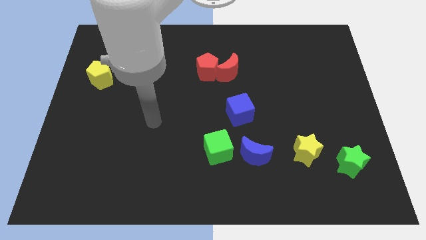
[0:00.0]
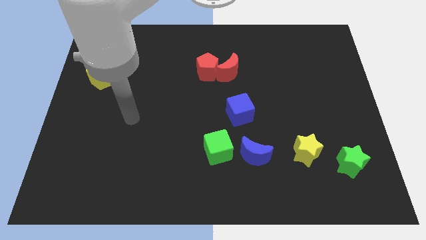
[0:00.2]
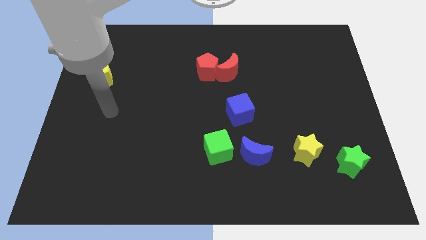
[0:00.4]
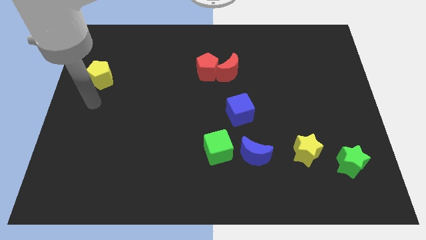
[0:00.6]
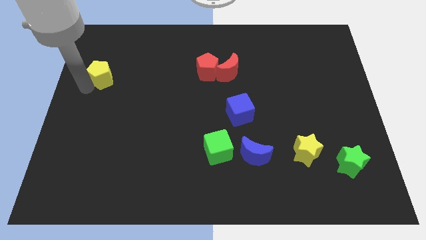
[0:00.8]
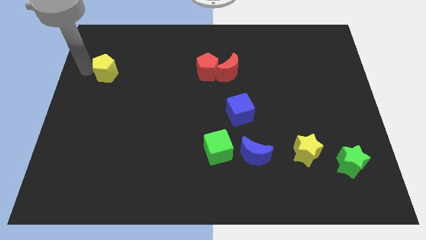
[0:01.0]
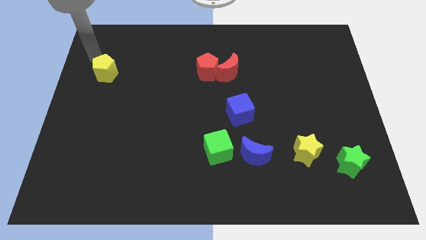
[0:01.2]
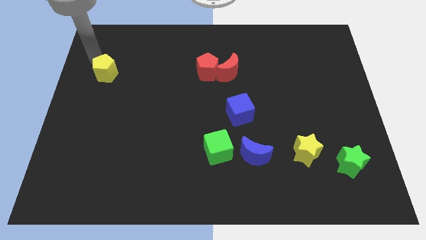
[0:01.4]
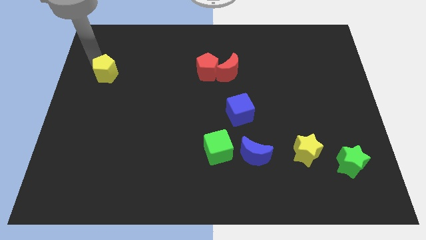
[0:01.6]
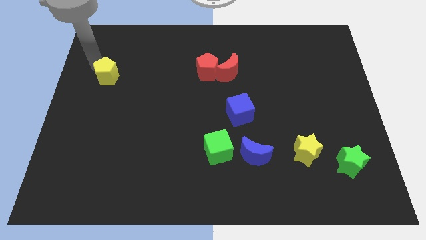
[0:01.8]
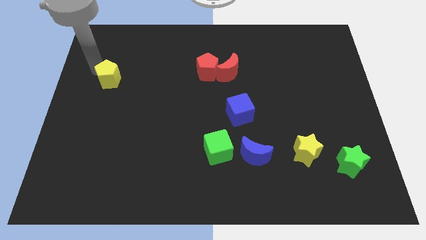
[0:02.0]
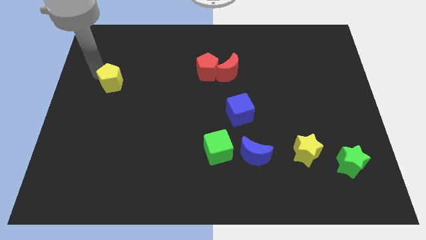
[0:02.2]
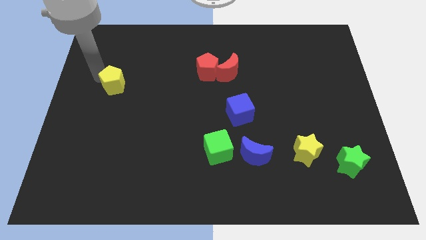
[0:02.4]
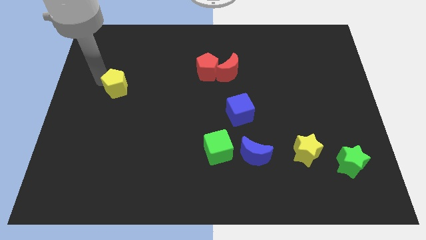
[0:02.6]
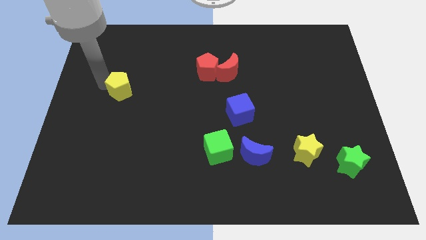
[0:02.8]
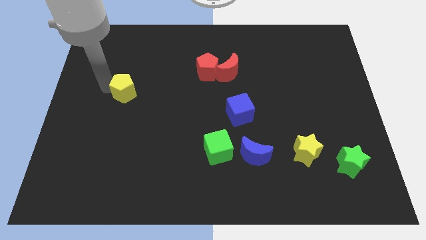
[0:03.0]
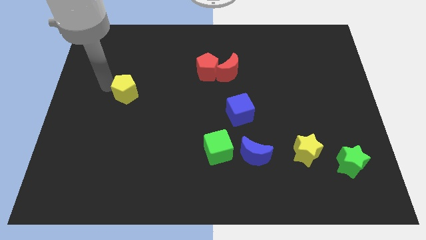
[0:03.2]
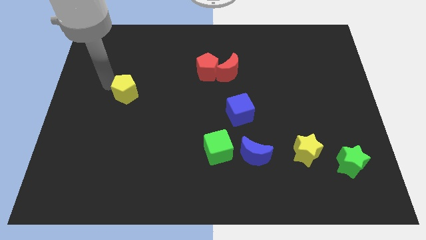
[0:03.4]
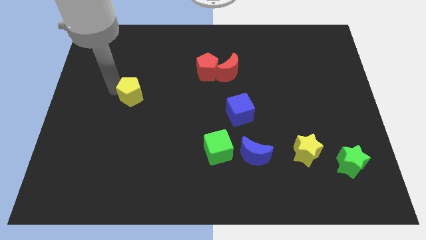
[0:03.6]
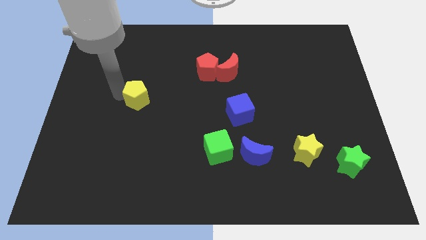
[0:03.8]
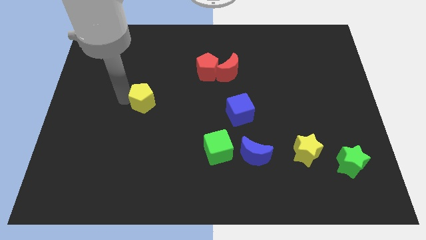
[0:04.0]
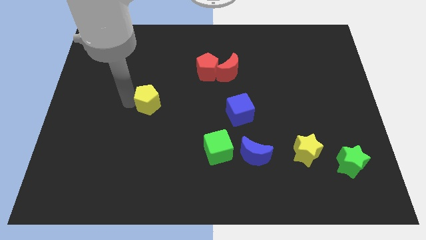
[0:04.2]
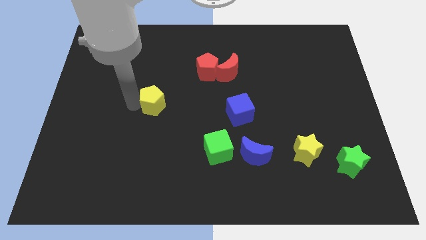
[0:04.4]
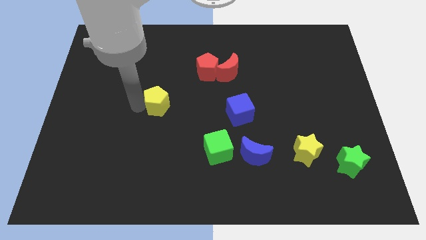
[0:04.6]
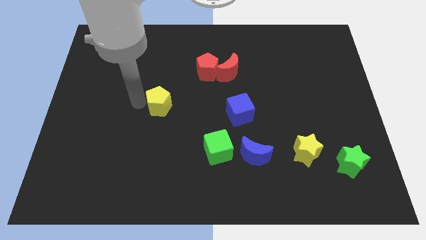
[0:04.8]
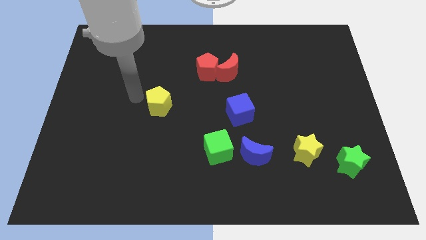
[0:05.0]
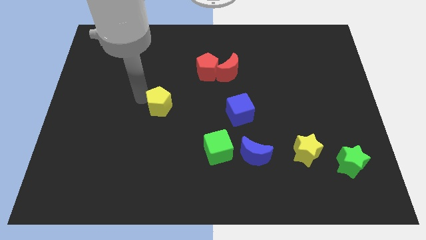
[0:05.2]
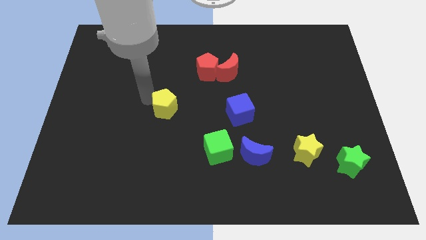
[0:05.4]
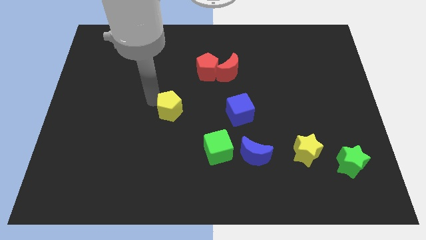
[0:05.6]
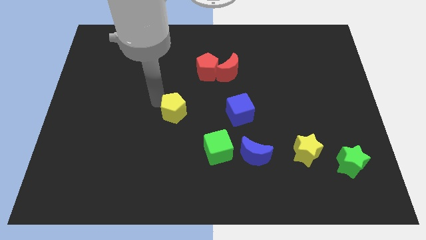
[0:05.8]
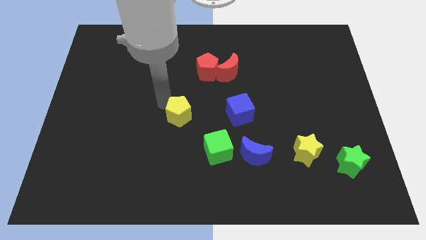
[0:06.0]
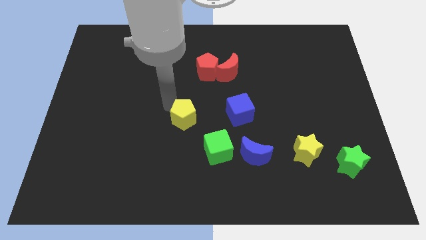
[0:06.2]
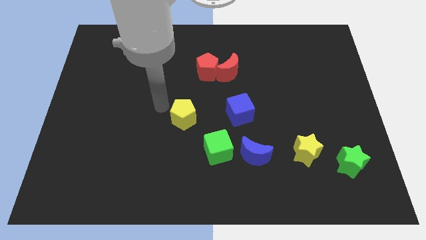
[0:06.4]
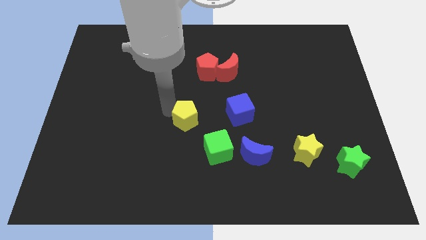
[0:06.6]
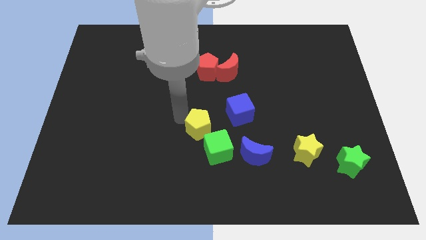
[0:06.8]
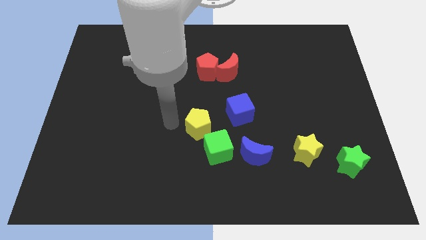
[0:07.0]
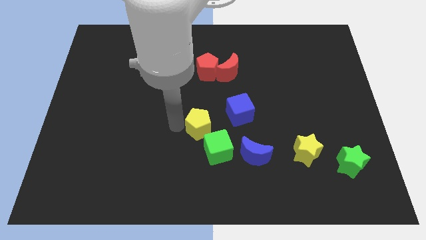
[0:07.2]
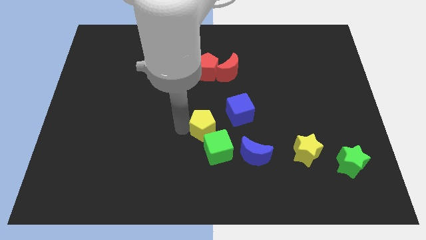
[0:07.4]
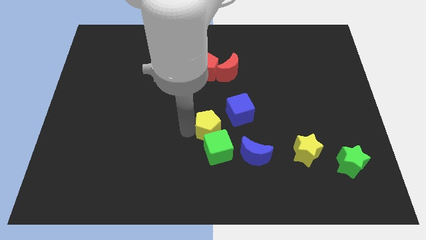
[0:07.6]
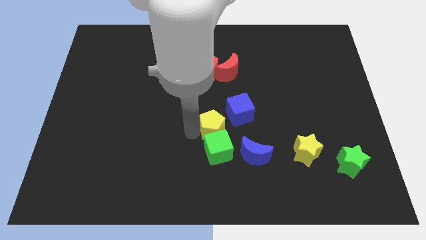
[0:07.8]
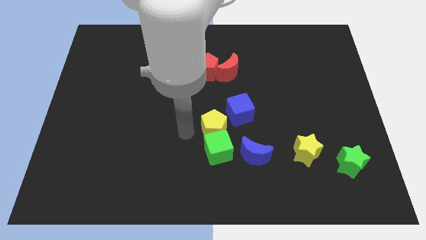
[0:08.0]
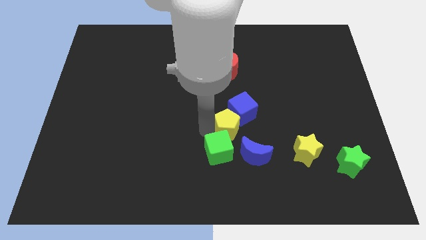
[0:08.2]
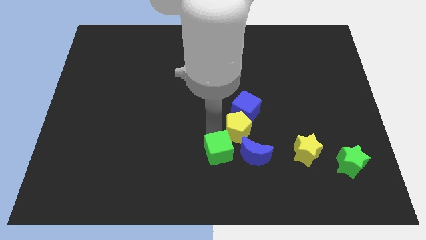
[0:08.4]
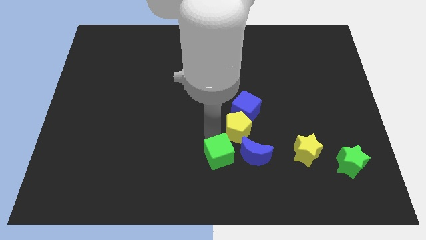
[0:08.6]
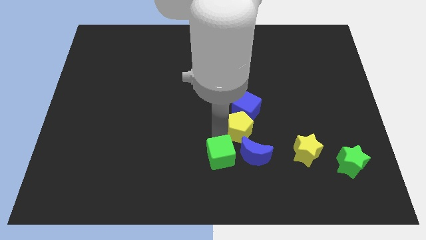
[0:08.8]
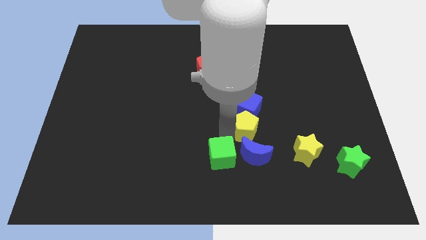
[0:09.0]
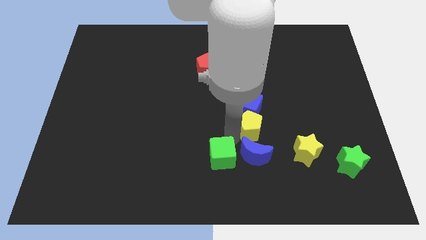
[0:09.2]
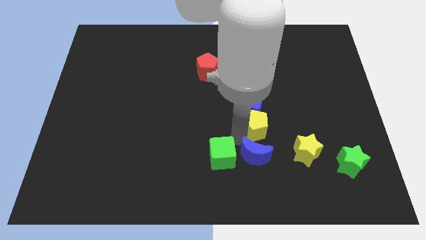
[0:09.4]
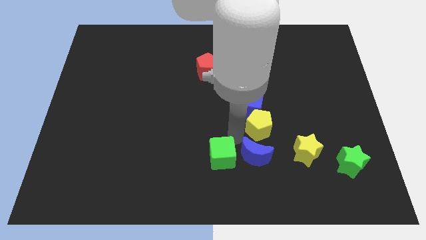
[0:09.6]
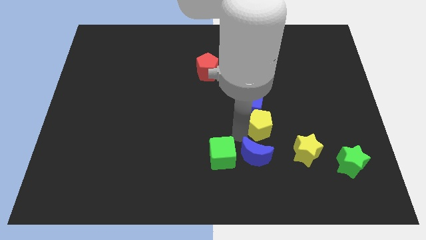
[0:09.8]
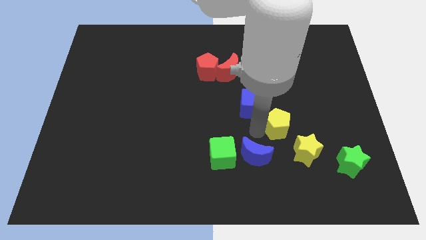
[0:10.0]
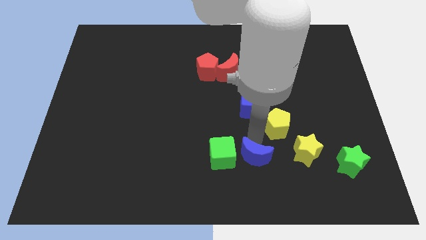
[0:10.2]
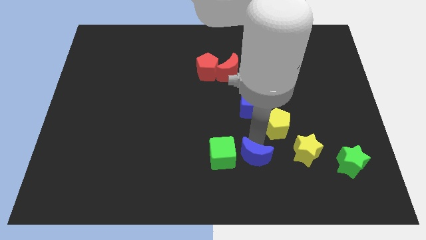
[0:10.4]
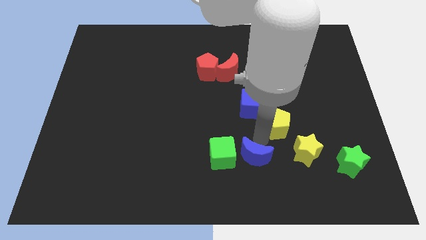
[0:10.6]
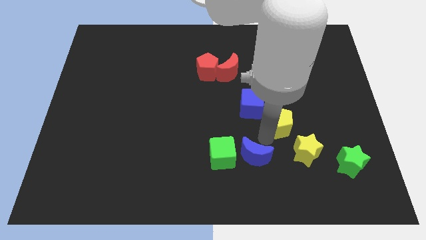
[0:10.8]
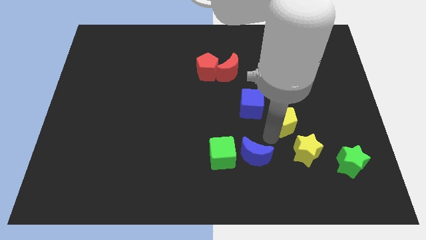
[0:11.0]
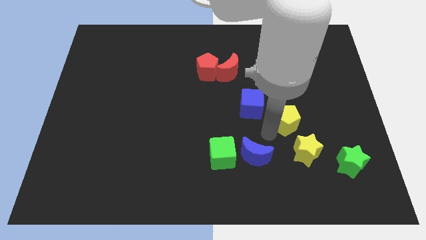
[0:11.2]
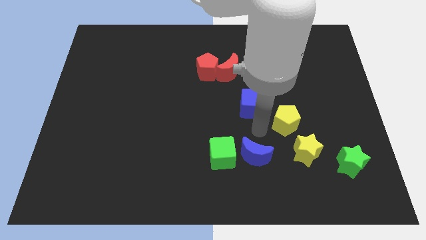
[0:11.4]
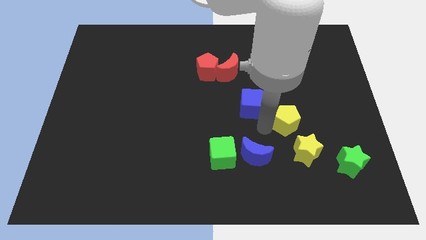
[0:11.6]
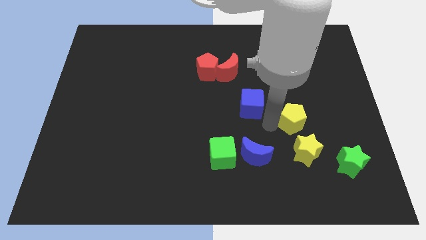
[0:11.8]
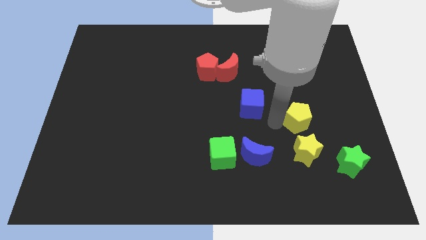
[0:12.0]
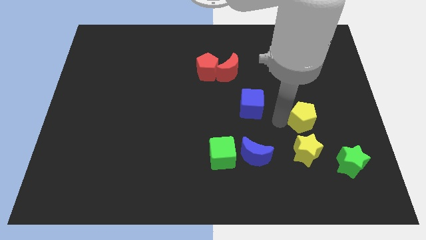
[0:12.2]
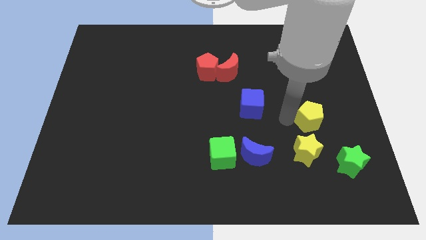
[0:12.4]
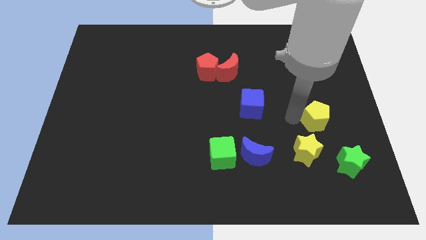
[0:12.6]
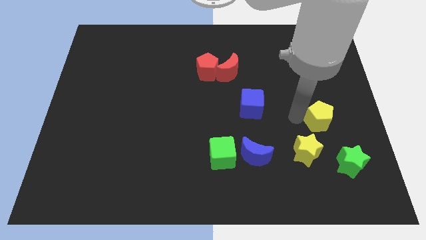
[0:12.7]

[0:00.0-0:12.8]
push the yellow pentagon above the green star

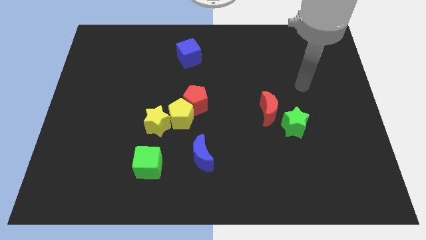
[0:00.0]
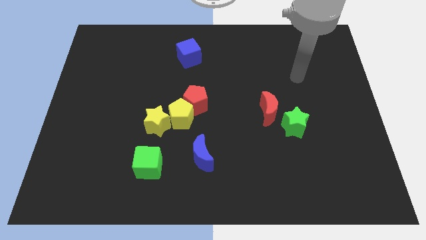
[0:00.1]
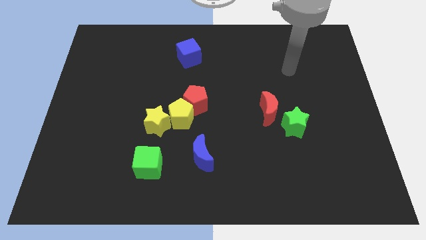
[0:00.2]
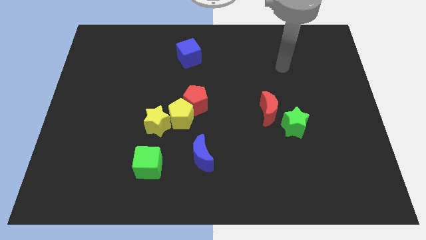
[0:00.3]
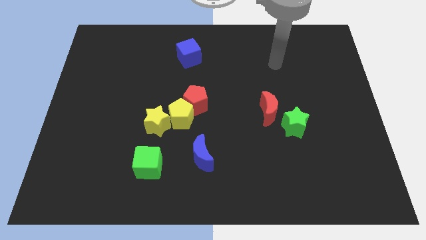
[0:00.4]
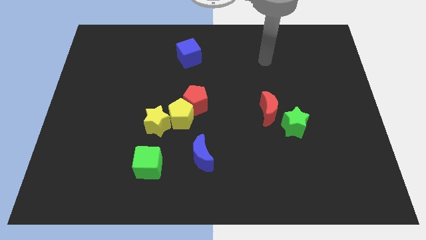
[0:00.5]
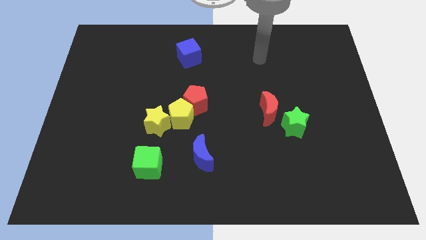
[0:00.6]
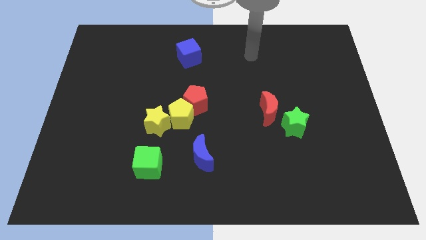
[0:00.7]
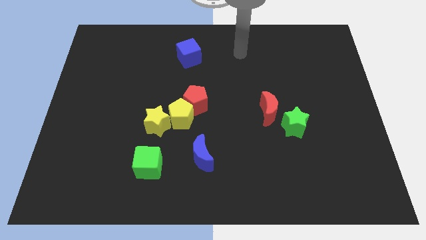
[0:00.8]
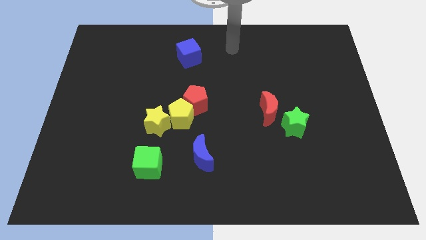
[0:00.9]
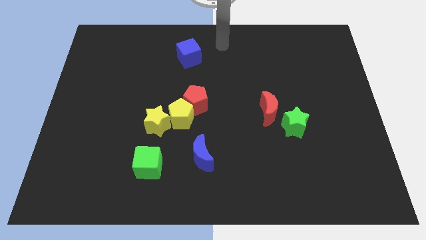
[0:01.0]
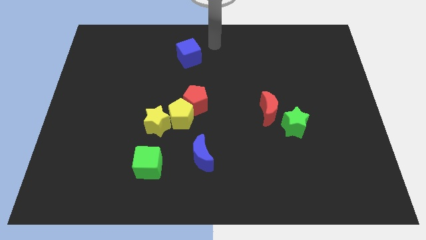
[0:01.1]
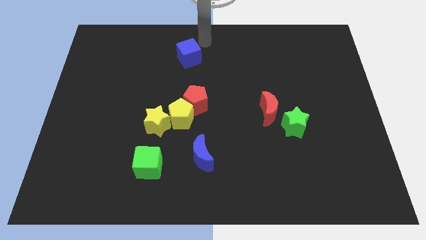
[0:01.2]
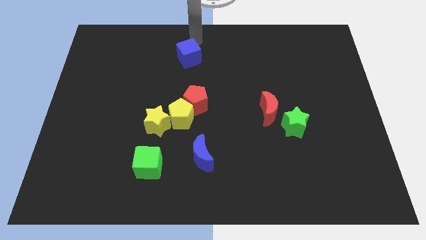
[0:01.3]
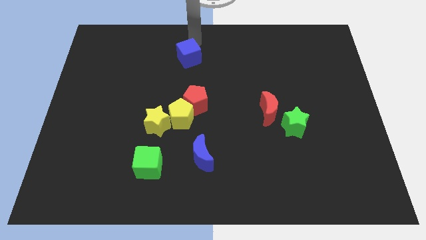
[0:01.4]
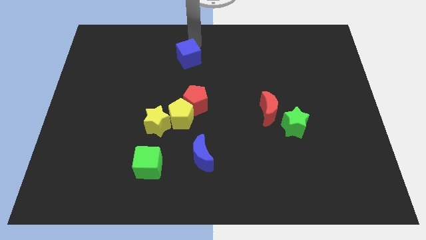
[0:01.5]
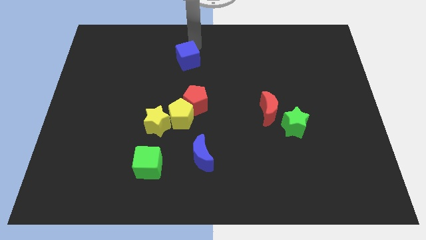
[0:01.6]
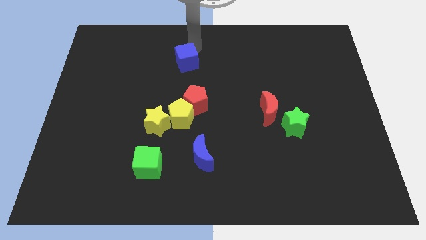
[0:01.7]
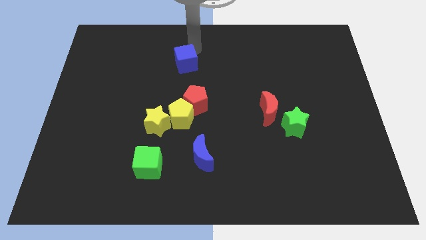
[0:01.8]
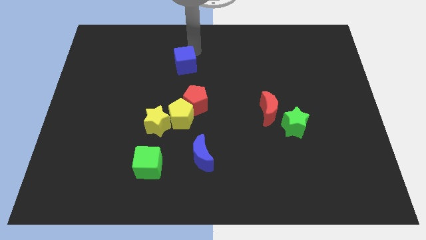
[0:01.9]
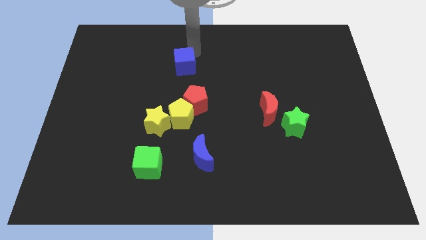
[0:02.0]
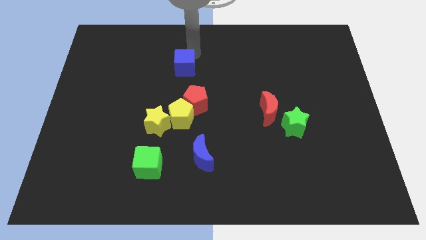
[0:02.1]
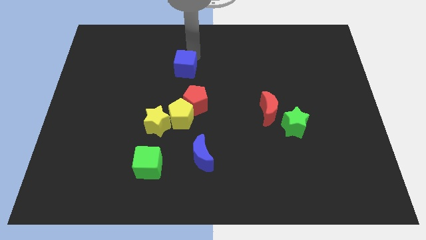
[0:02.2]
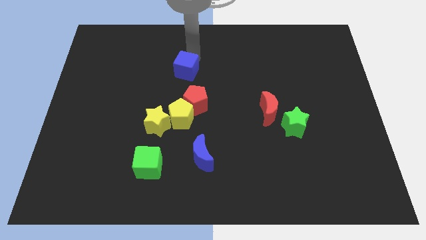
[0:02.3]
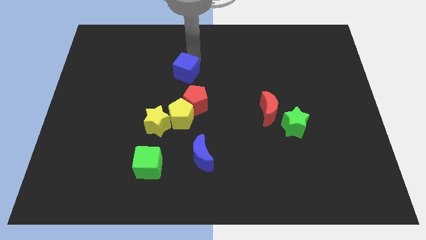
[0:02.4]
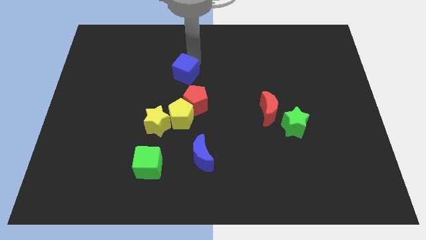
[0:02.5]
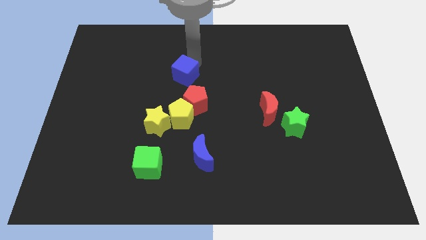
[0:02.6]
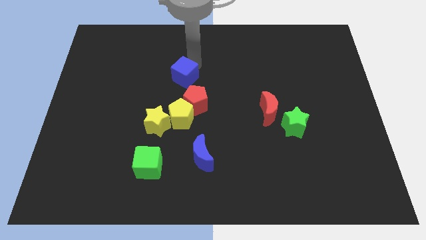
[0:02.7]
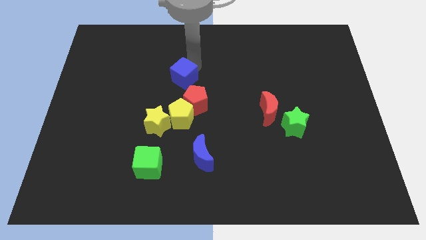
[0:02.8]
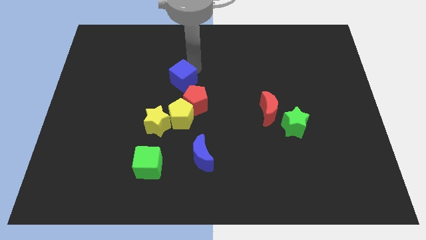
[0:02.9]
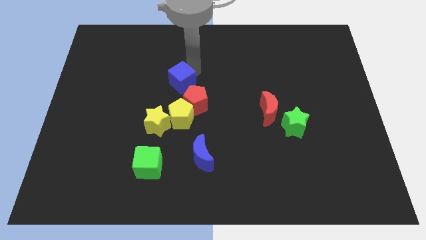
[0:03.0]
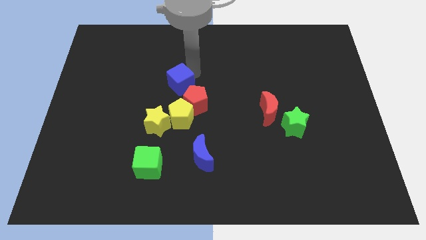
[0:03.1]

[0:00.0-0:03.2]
slide the blue cube to the top of the yellow star
